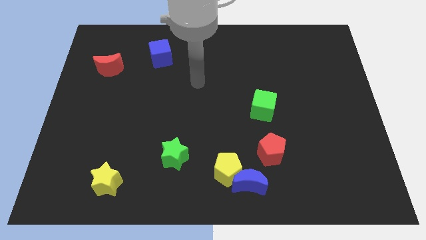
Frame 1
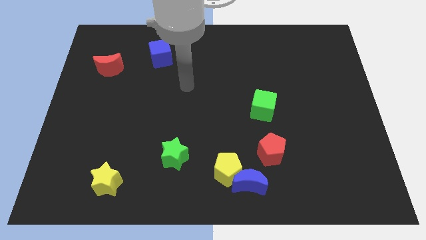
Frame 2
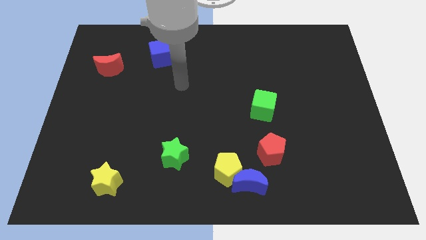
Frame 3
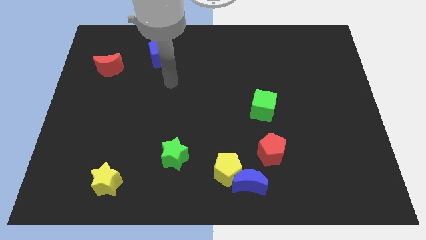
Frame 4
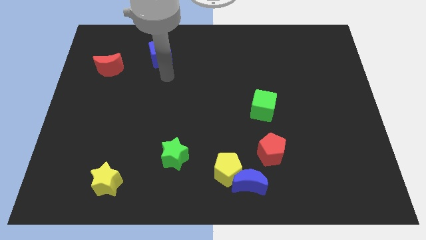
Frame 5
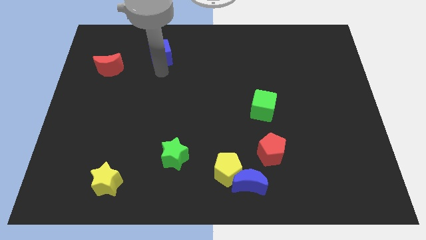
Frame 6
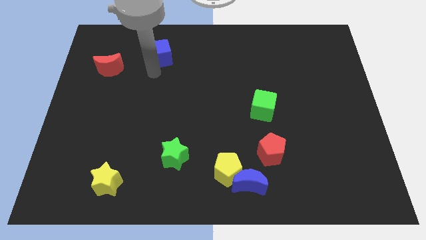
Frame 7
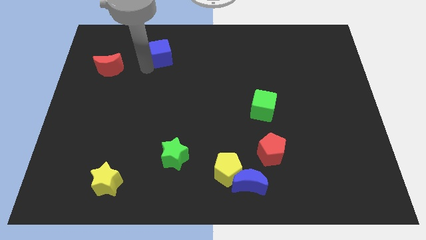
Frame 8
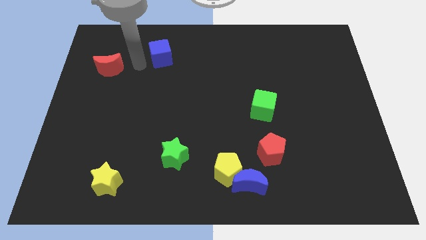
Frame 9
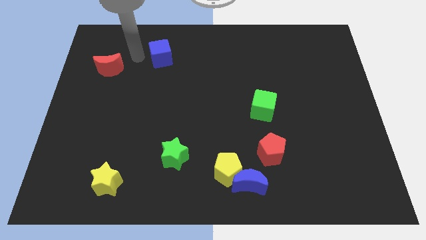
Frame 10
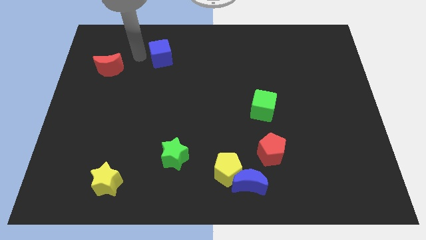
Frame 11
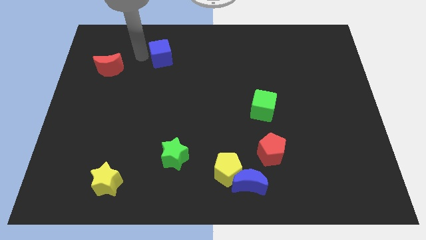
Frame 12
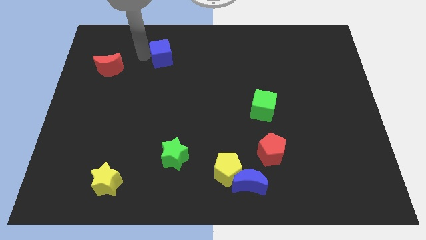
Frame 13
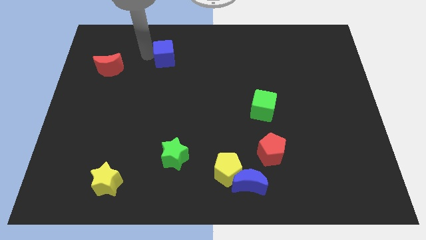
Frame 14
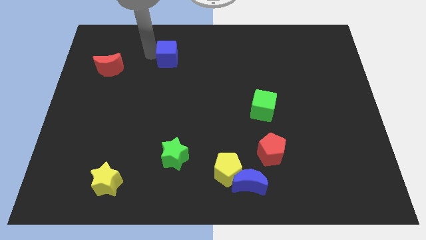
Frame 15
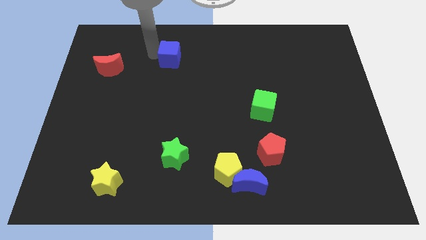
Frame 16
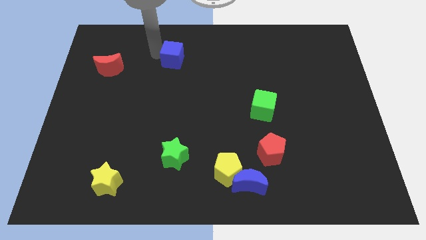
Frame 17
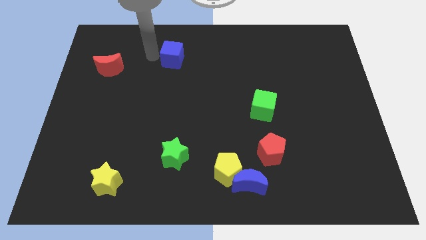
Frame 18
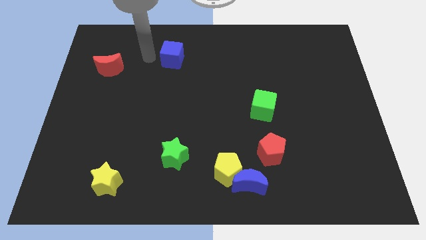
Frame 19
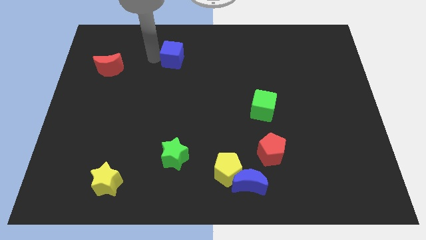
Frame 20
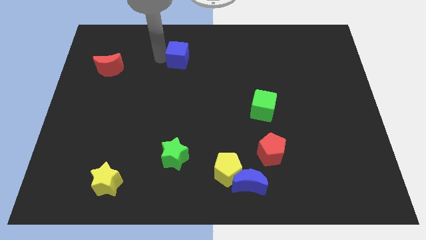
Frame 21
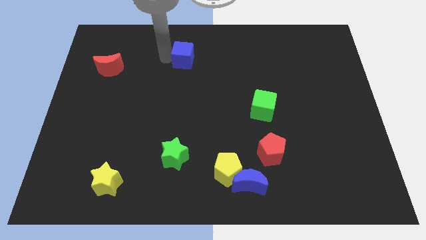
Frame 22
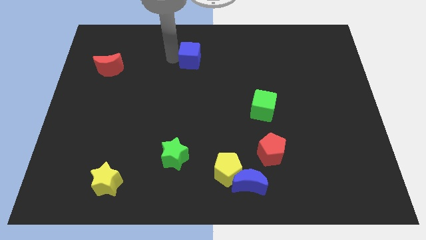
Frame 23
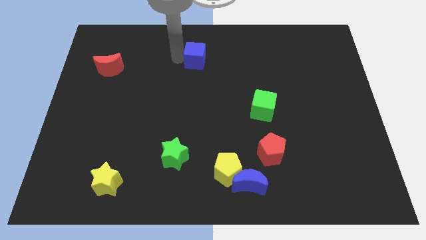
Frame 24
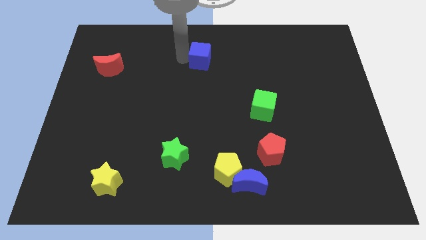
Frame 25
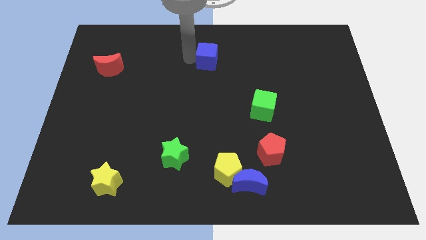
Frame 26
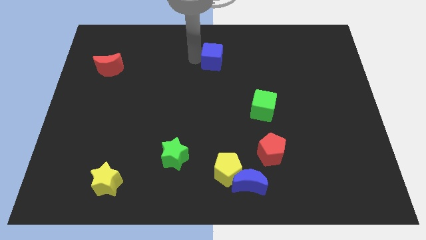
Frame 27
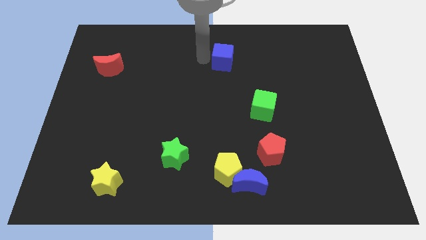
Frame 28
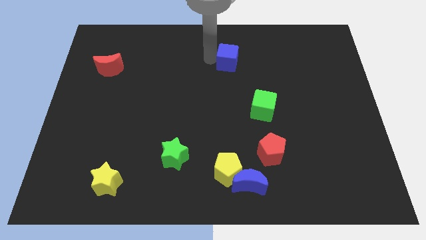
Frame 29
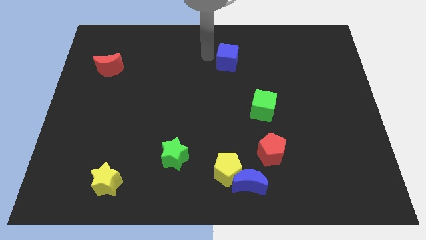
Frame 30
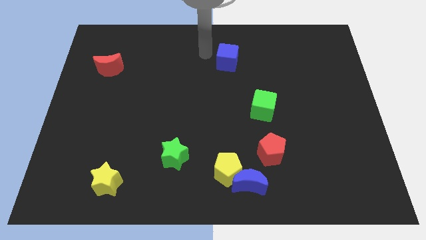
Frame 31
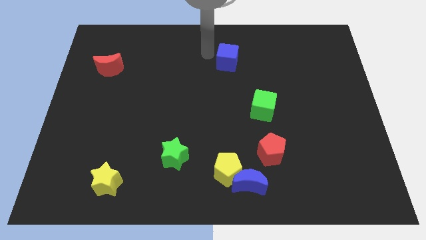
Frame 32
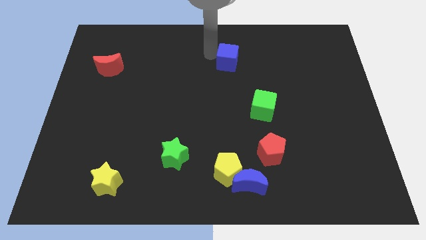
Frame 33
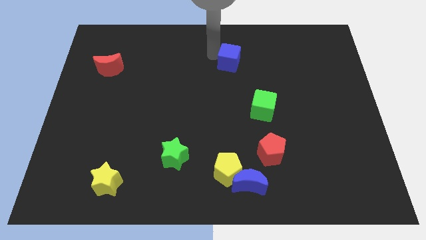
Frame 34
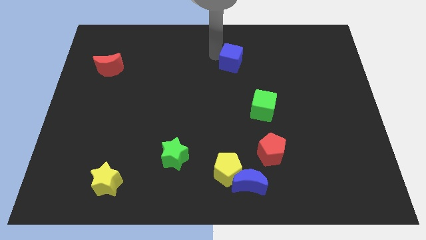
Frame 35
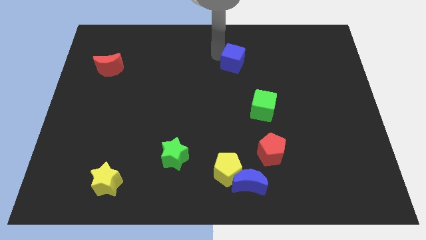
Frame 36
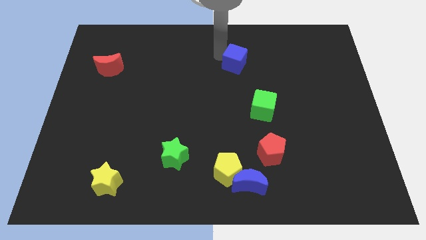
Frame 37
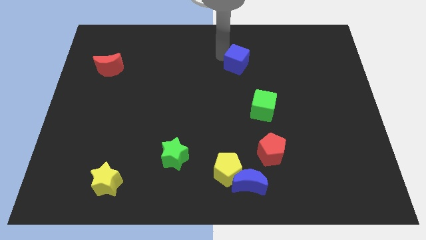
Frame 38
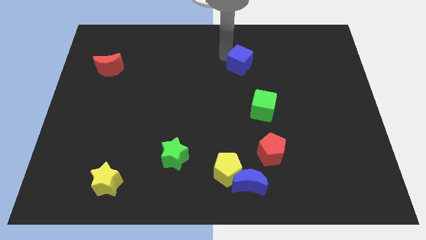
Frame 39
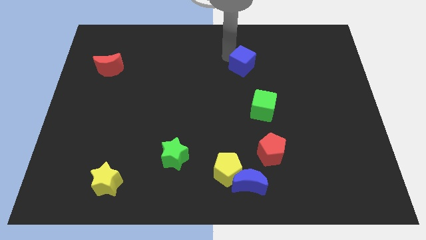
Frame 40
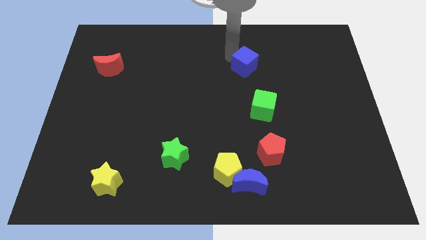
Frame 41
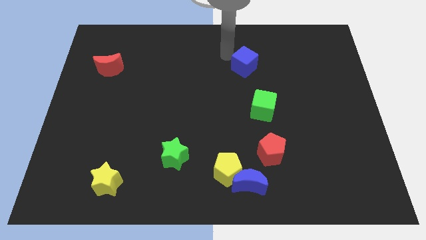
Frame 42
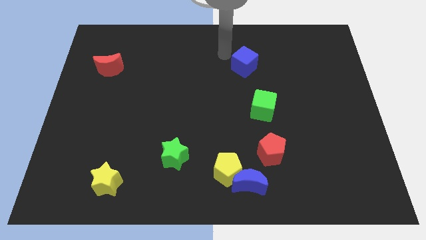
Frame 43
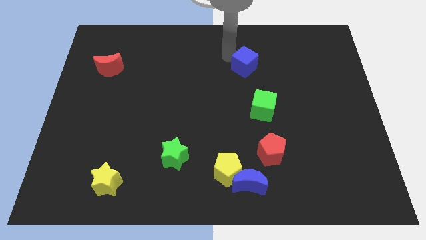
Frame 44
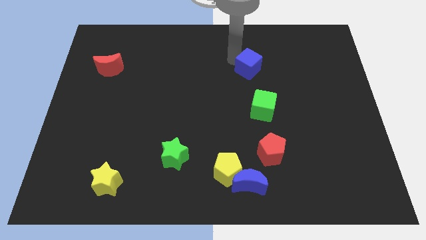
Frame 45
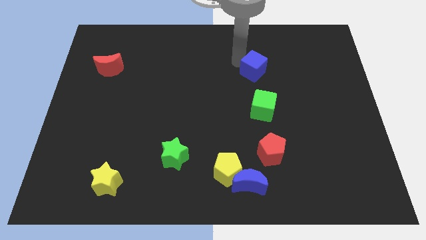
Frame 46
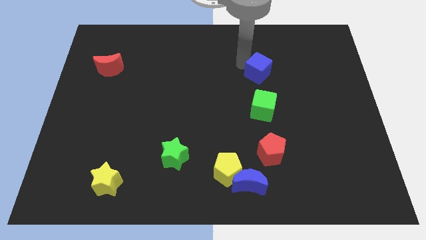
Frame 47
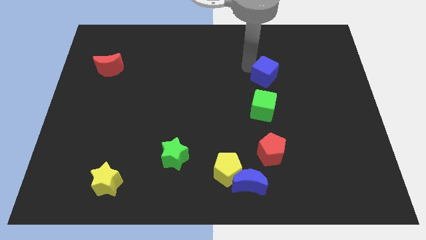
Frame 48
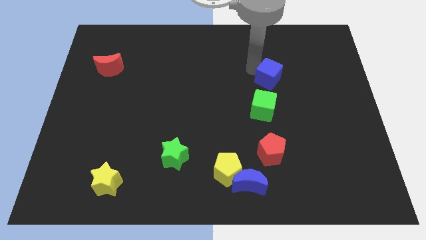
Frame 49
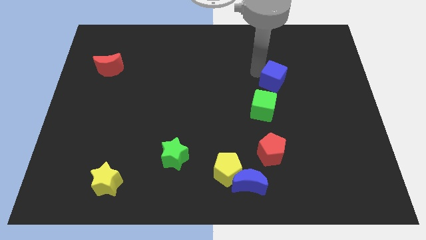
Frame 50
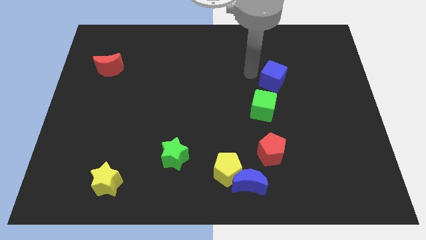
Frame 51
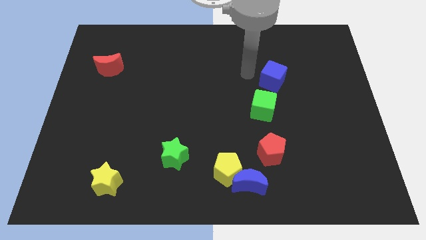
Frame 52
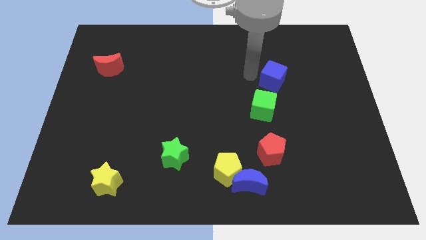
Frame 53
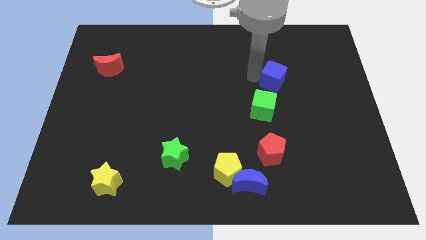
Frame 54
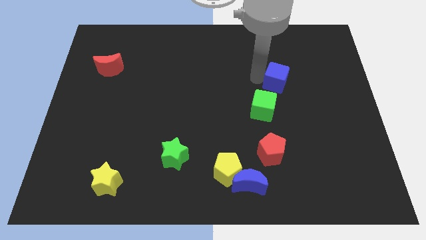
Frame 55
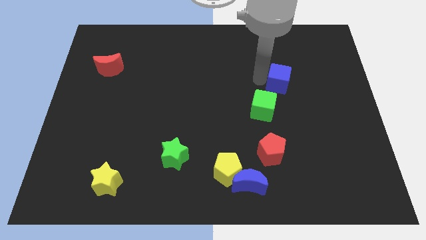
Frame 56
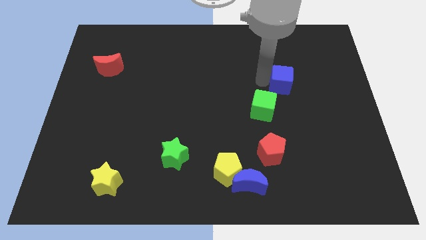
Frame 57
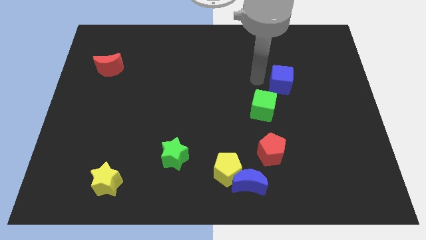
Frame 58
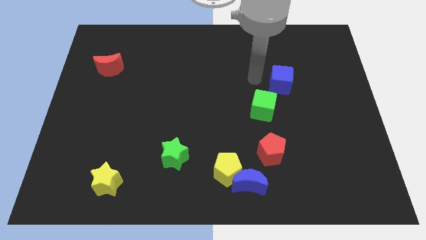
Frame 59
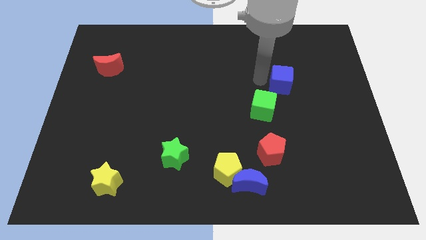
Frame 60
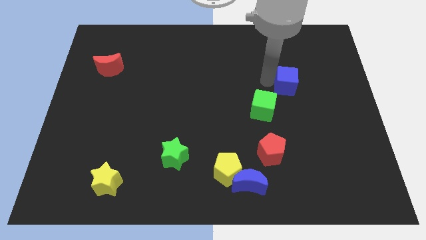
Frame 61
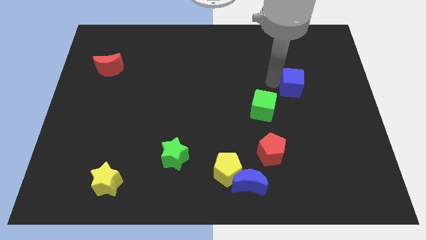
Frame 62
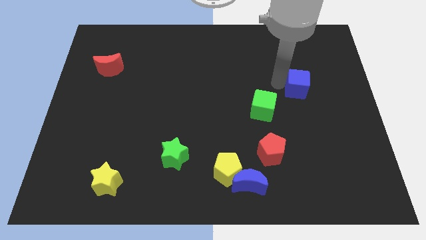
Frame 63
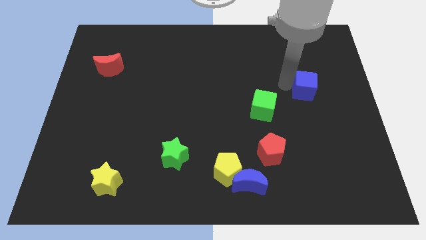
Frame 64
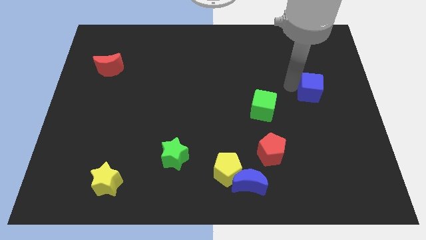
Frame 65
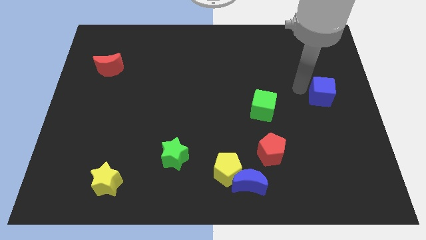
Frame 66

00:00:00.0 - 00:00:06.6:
push the blue cube to the right side of the board

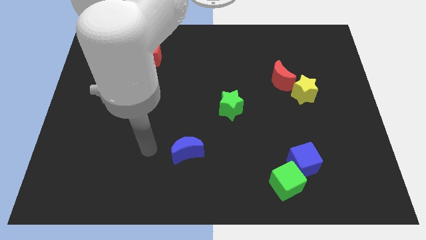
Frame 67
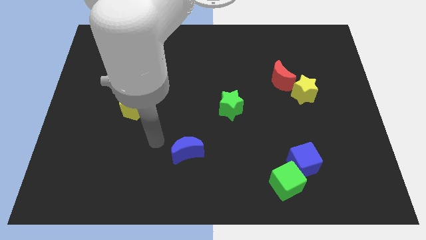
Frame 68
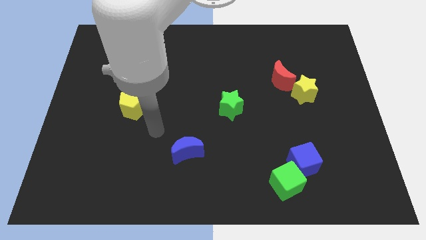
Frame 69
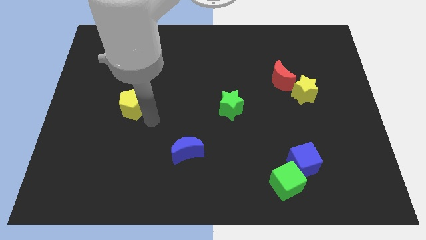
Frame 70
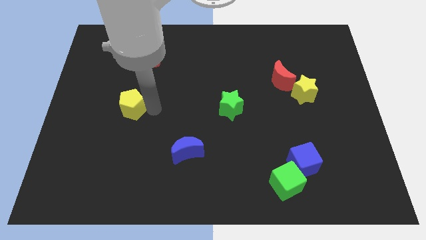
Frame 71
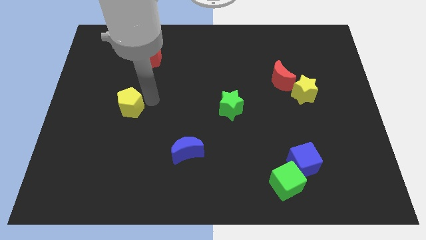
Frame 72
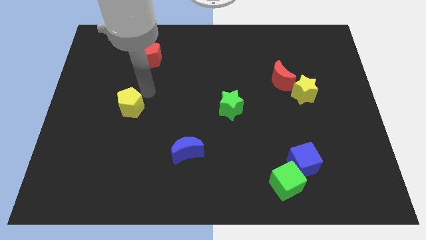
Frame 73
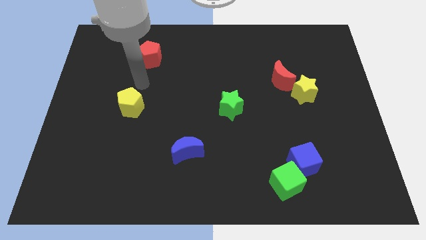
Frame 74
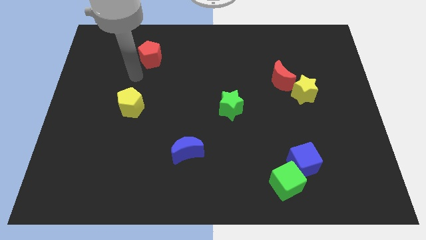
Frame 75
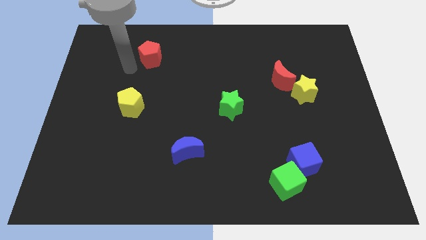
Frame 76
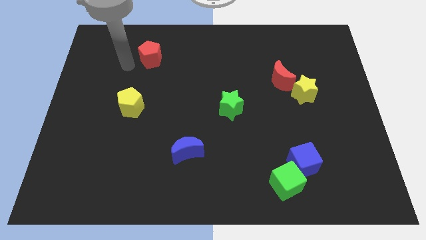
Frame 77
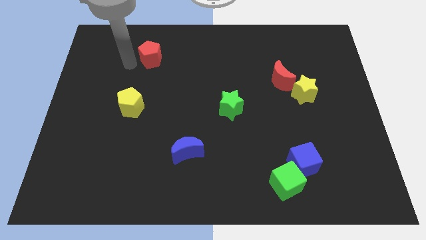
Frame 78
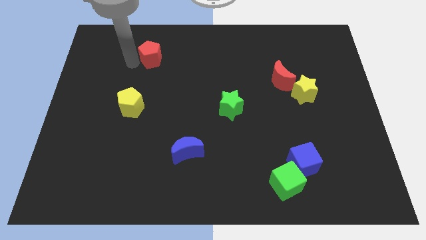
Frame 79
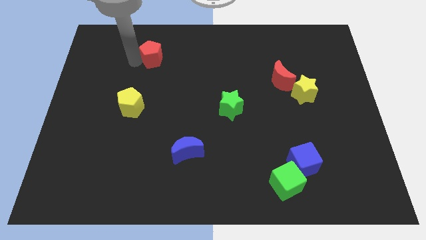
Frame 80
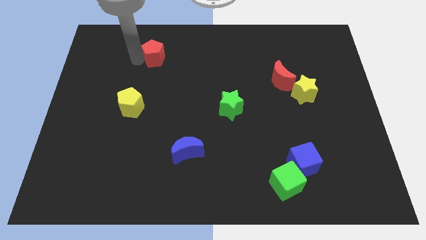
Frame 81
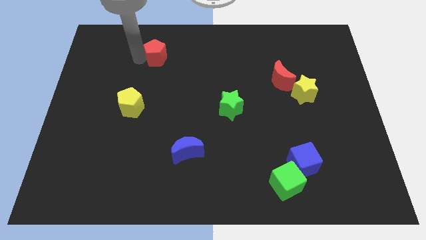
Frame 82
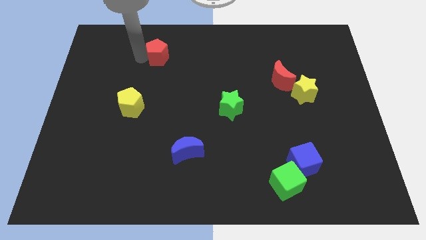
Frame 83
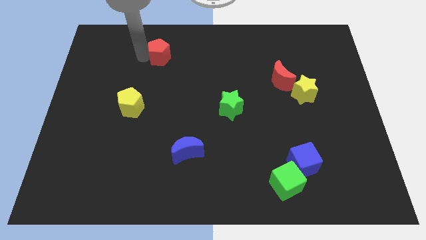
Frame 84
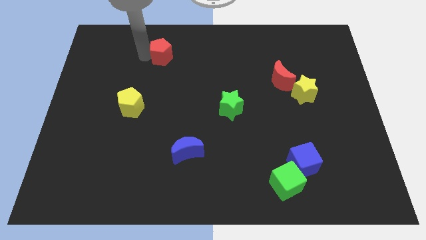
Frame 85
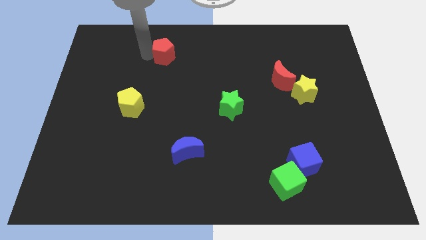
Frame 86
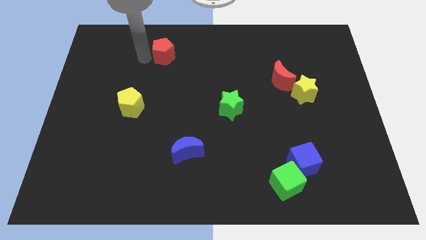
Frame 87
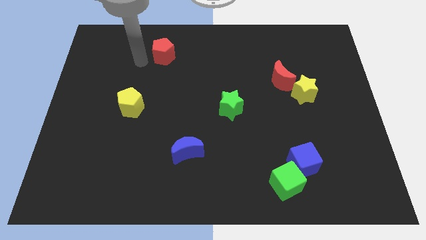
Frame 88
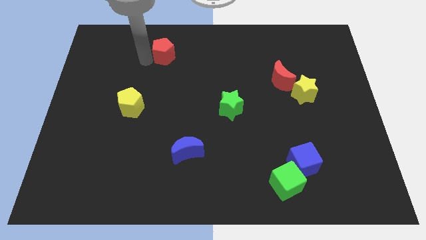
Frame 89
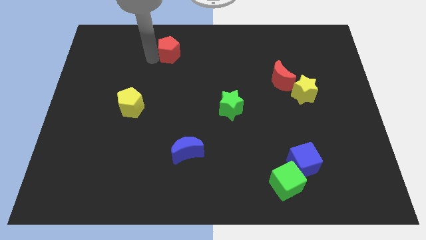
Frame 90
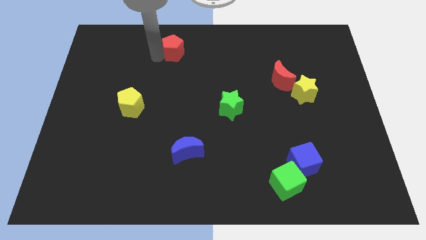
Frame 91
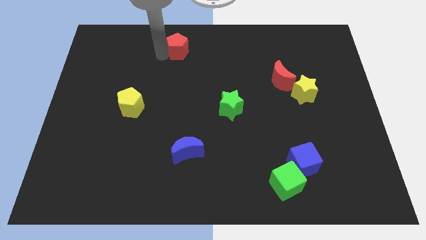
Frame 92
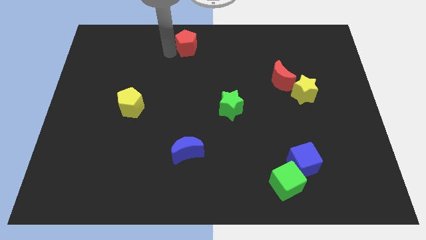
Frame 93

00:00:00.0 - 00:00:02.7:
slide the red pentagon to the top
